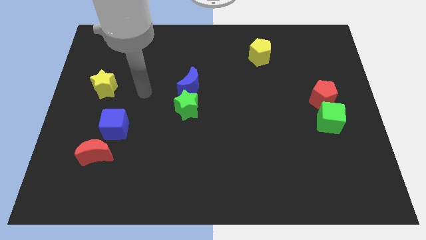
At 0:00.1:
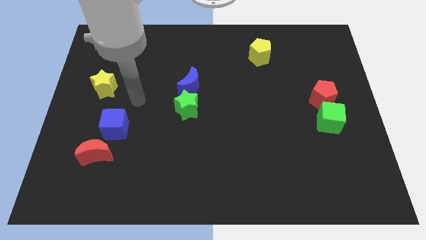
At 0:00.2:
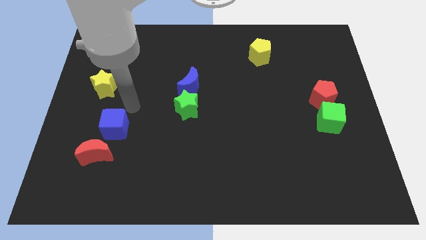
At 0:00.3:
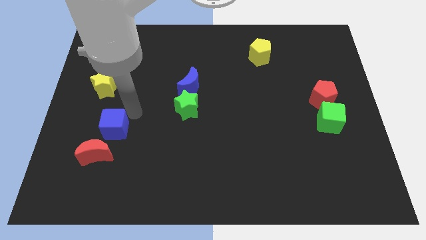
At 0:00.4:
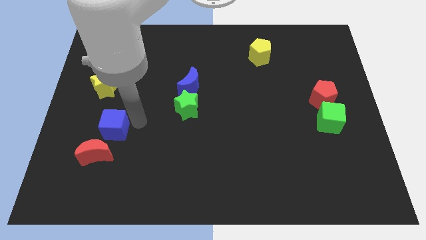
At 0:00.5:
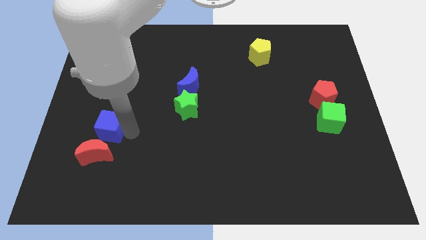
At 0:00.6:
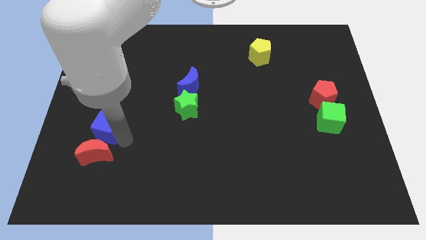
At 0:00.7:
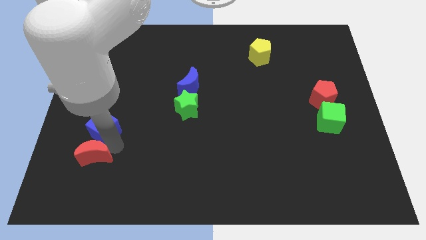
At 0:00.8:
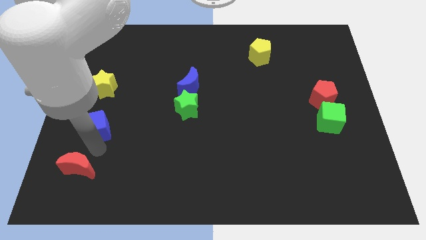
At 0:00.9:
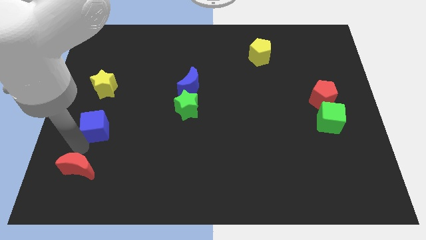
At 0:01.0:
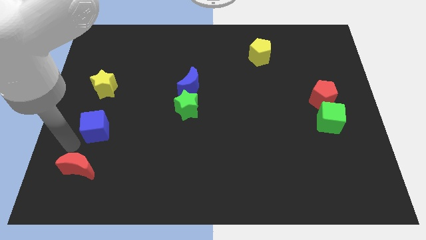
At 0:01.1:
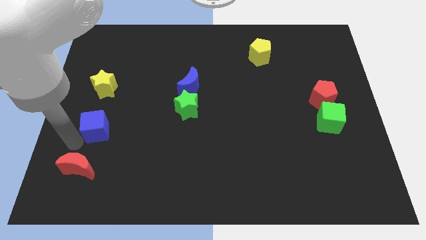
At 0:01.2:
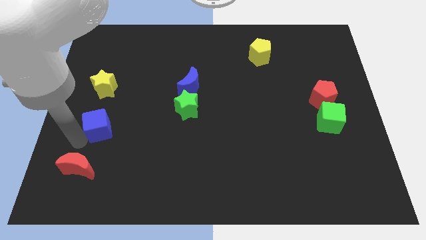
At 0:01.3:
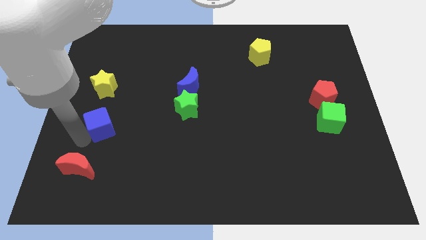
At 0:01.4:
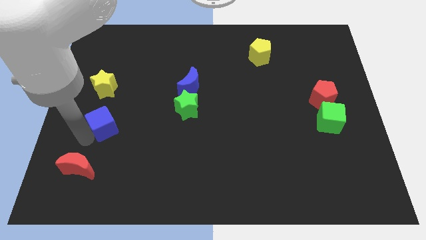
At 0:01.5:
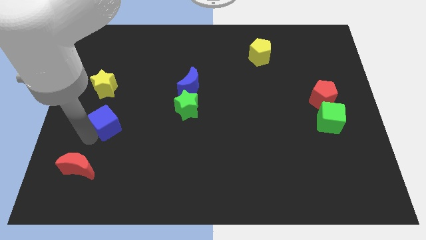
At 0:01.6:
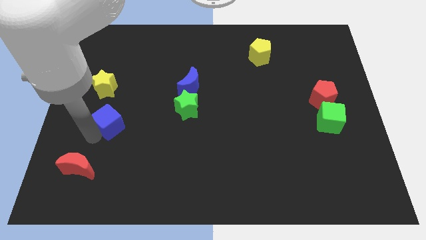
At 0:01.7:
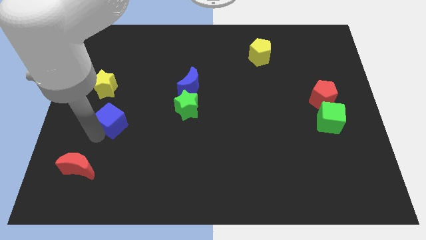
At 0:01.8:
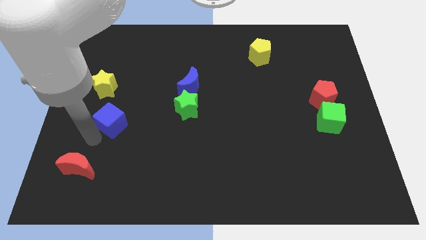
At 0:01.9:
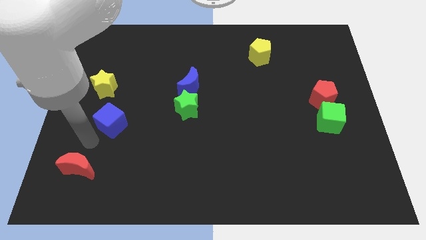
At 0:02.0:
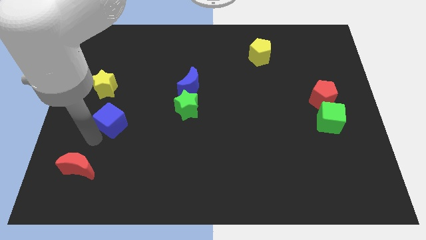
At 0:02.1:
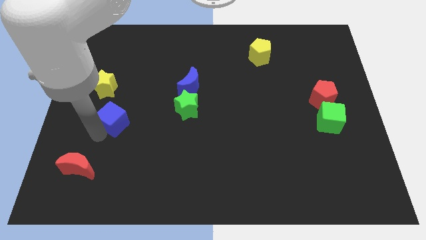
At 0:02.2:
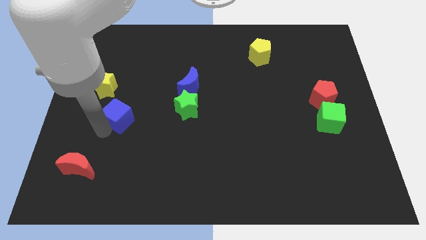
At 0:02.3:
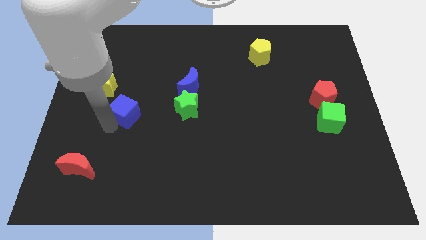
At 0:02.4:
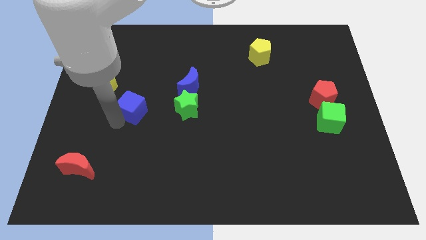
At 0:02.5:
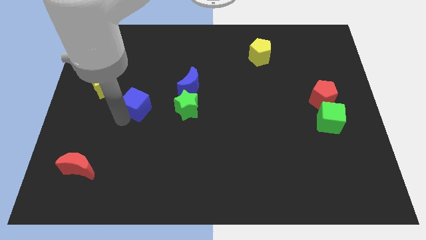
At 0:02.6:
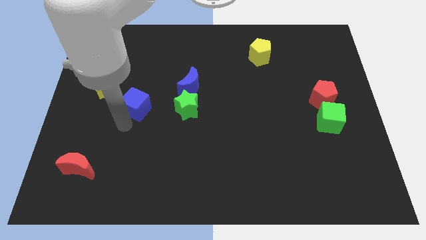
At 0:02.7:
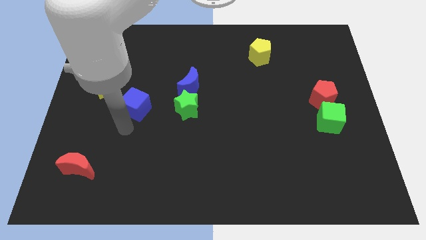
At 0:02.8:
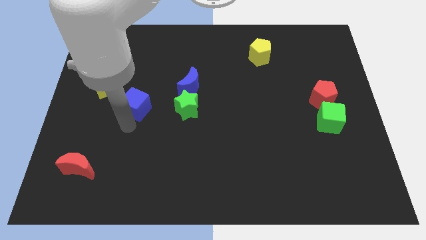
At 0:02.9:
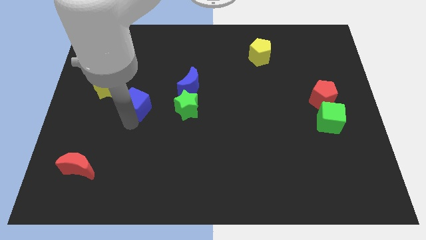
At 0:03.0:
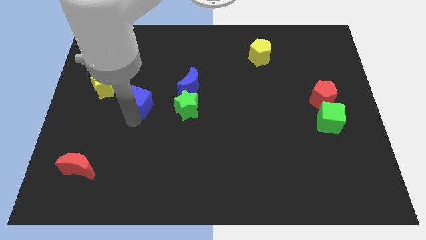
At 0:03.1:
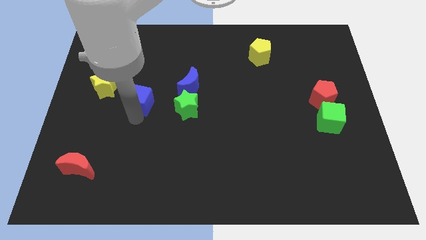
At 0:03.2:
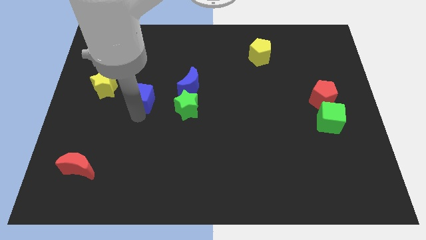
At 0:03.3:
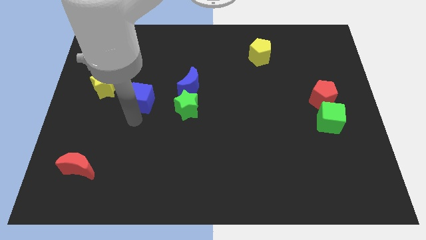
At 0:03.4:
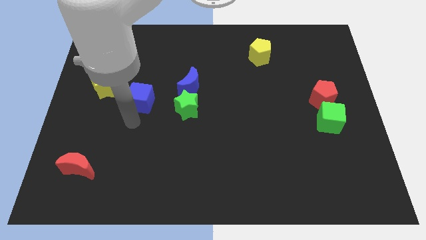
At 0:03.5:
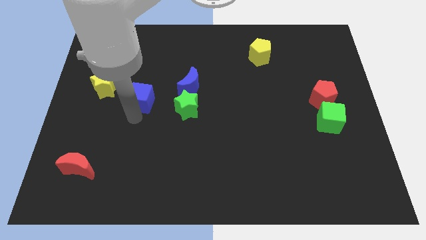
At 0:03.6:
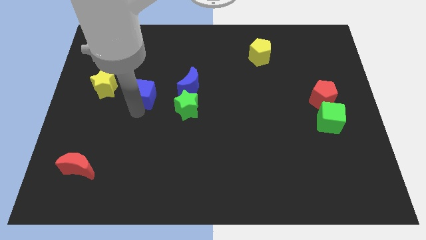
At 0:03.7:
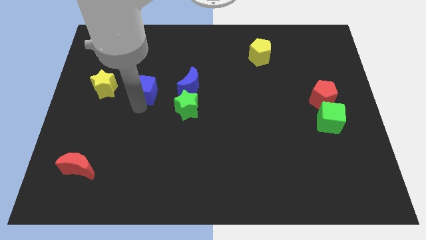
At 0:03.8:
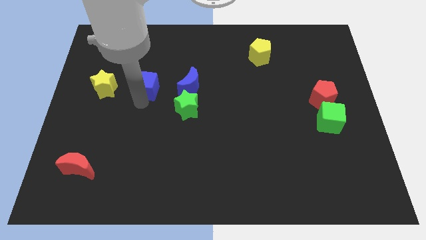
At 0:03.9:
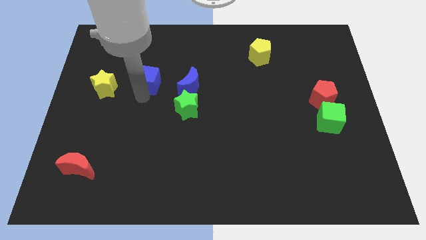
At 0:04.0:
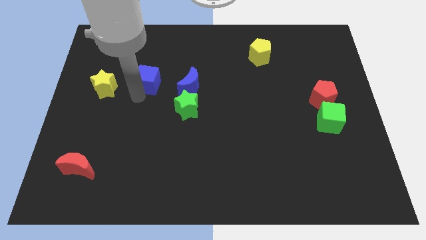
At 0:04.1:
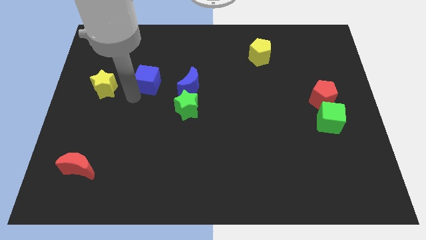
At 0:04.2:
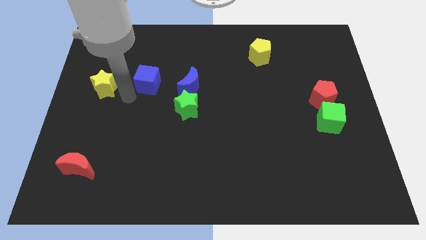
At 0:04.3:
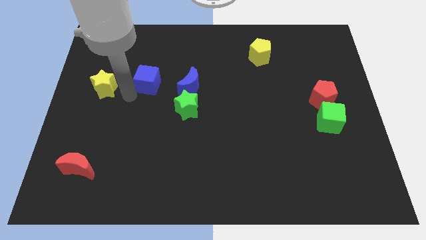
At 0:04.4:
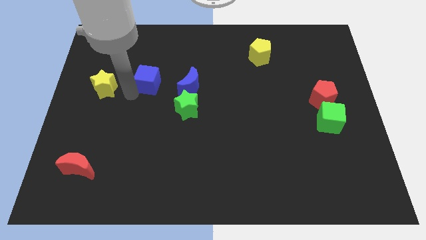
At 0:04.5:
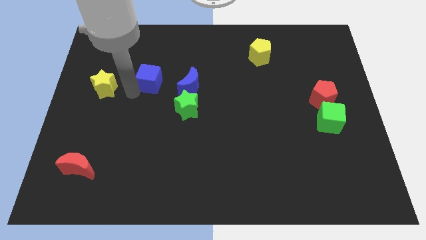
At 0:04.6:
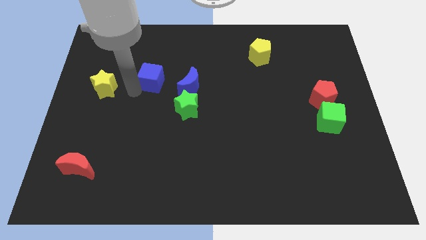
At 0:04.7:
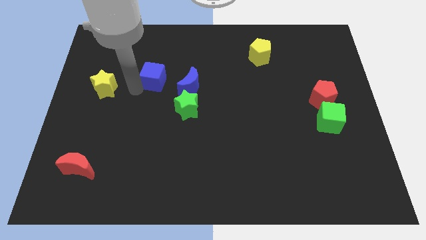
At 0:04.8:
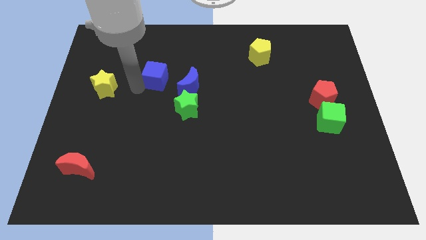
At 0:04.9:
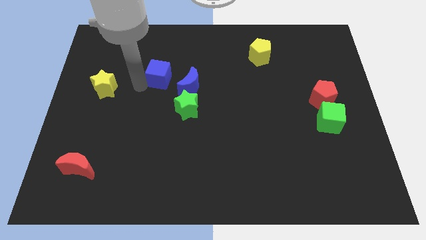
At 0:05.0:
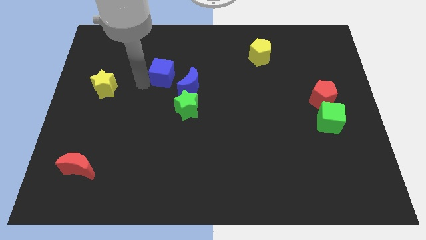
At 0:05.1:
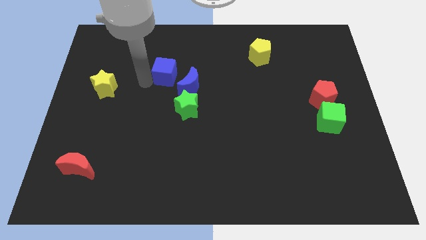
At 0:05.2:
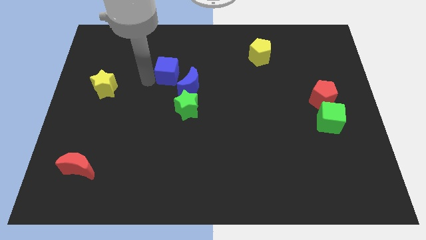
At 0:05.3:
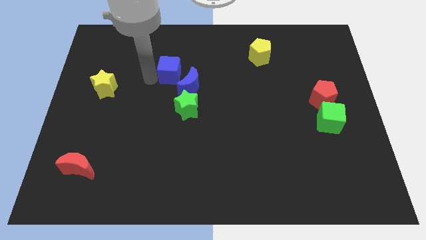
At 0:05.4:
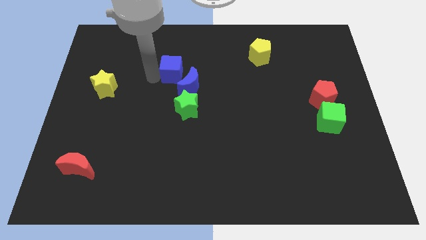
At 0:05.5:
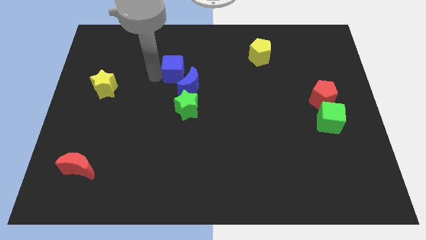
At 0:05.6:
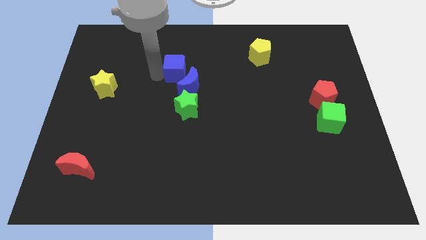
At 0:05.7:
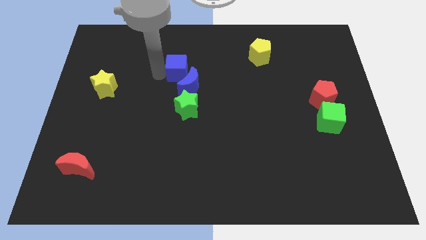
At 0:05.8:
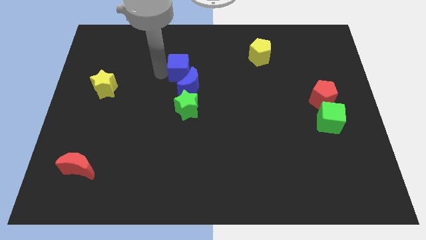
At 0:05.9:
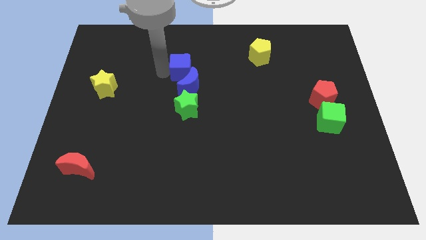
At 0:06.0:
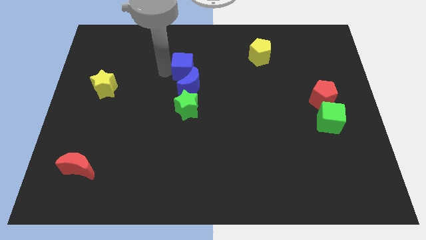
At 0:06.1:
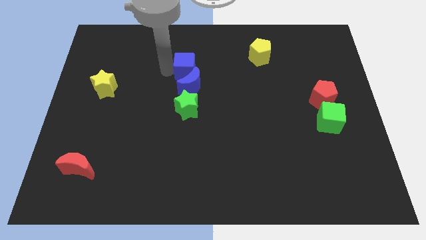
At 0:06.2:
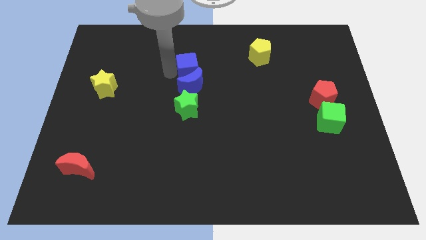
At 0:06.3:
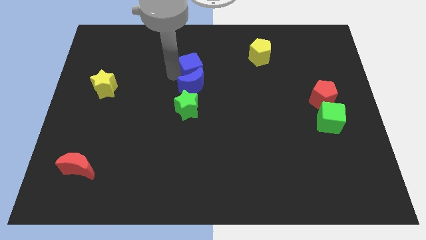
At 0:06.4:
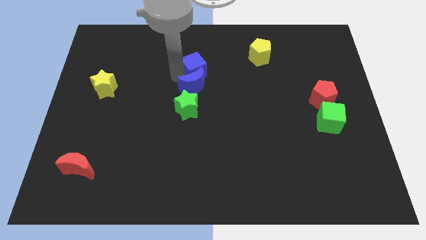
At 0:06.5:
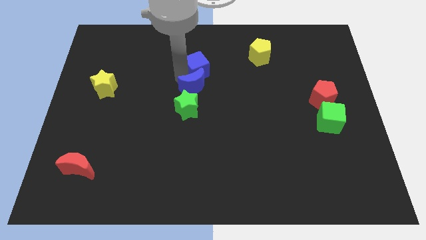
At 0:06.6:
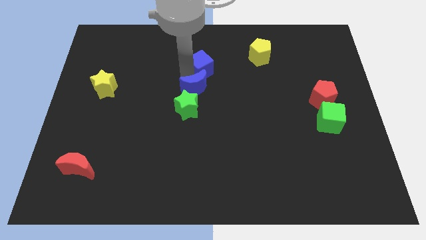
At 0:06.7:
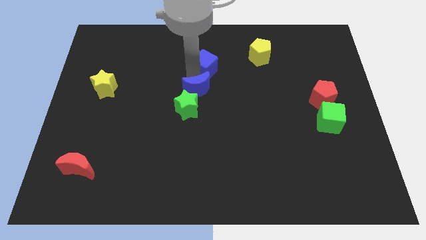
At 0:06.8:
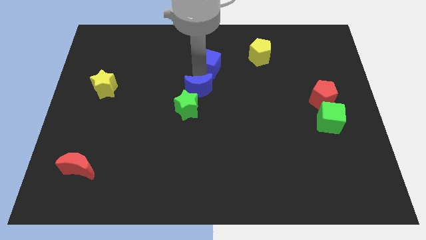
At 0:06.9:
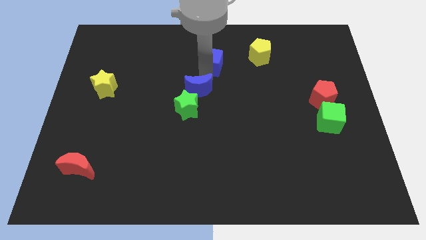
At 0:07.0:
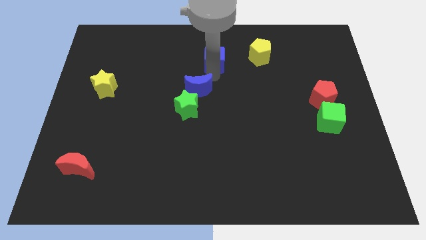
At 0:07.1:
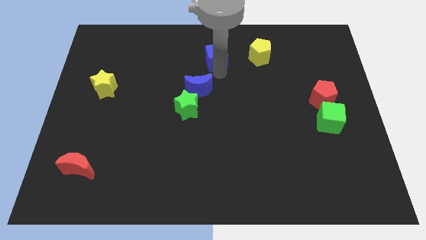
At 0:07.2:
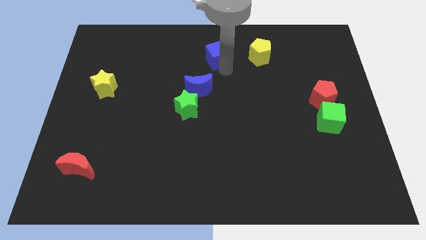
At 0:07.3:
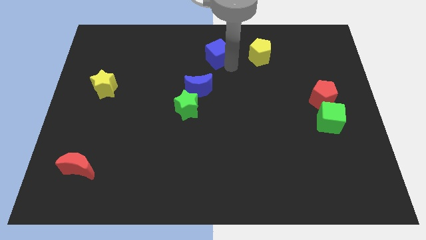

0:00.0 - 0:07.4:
push the blue cube to the top side
